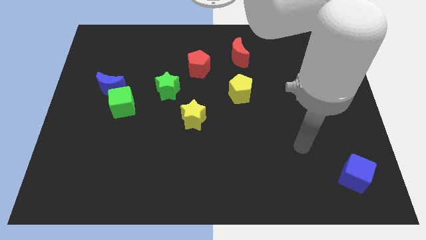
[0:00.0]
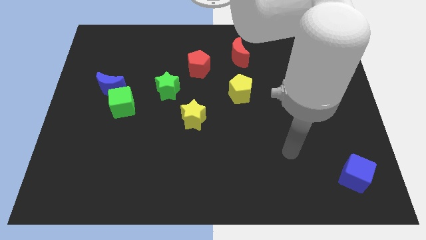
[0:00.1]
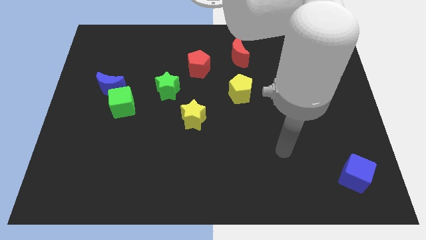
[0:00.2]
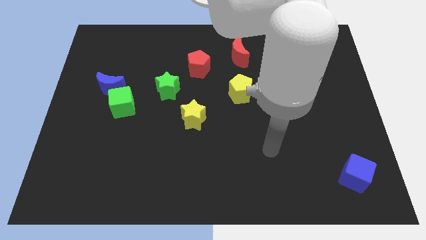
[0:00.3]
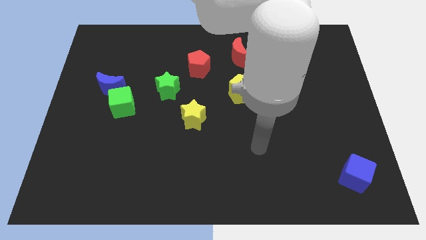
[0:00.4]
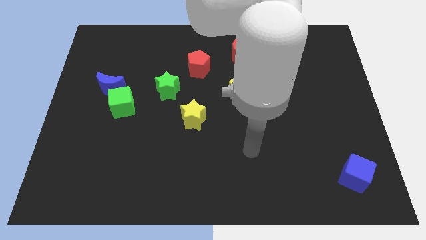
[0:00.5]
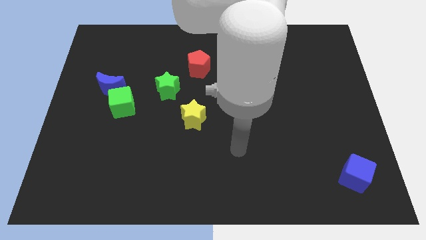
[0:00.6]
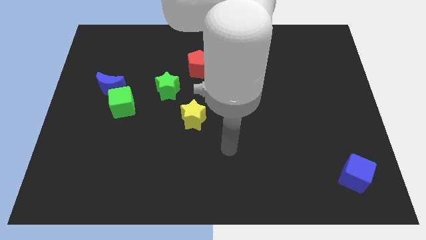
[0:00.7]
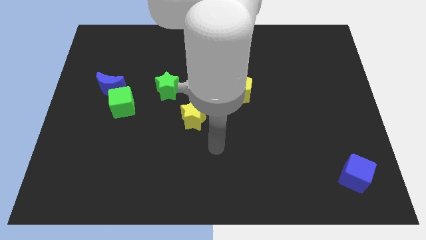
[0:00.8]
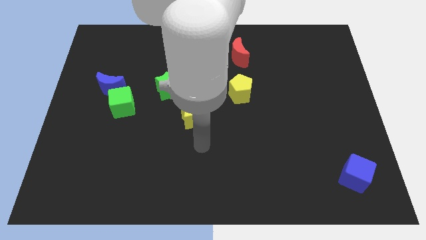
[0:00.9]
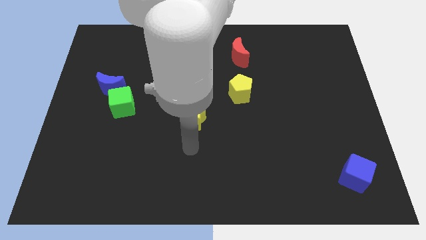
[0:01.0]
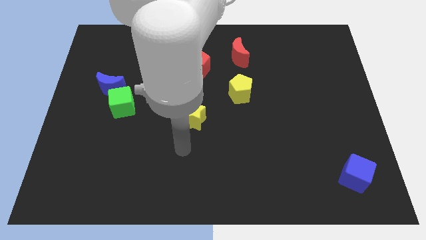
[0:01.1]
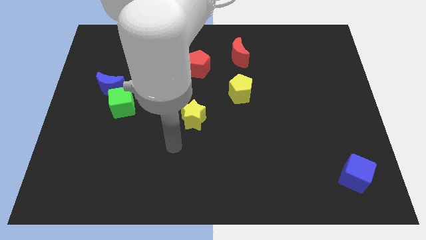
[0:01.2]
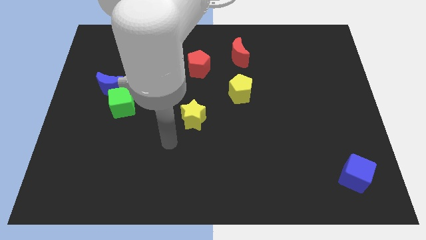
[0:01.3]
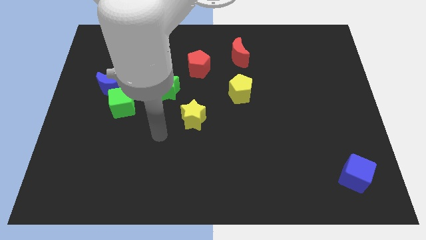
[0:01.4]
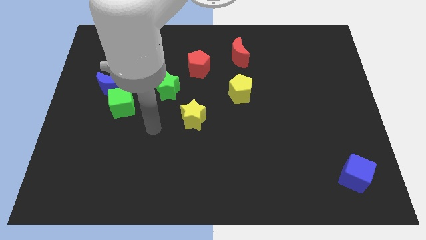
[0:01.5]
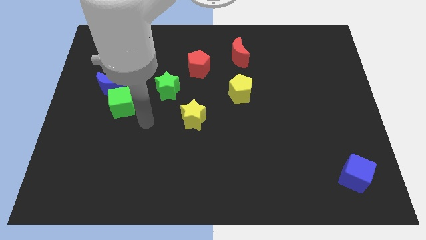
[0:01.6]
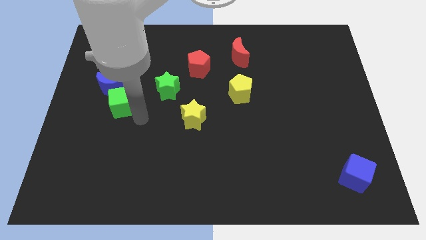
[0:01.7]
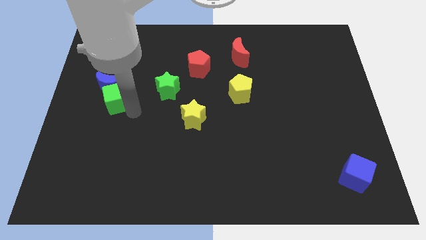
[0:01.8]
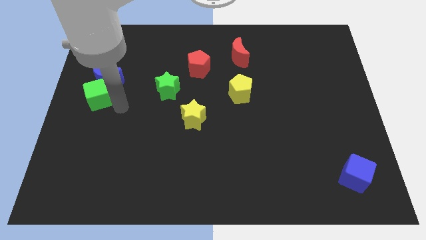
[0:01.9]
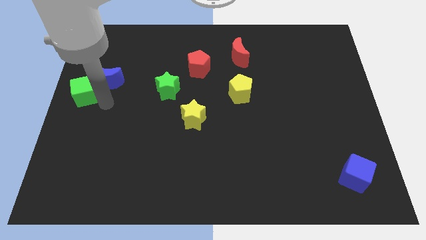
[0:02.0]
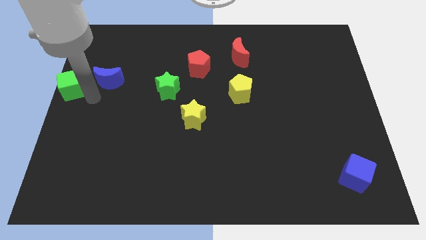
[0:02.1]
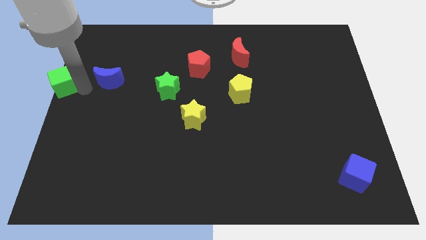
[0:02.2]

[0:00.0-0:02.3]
separate the blue moon from the green cube

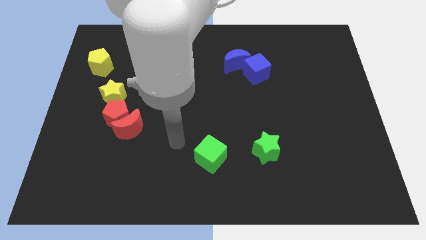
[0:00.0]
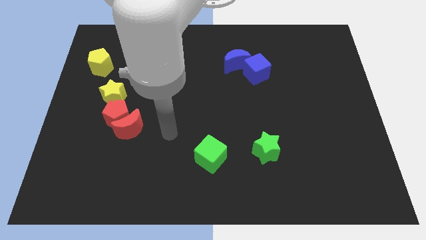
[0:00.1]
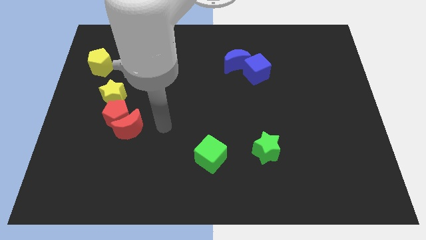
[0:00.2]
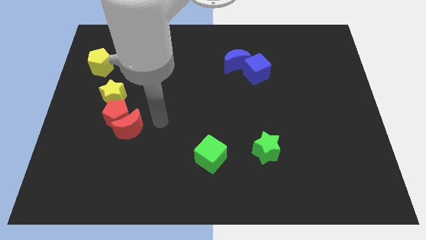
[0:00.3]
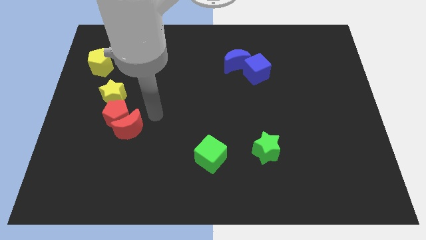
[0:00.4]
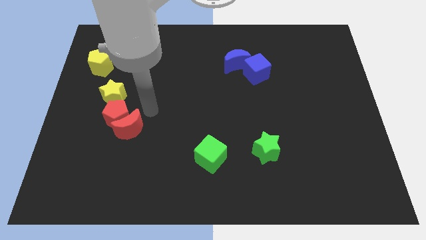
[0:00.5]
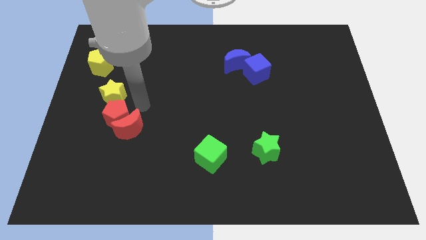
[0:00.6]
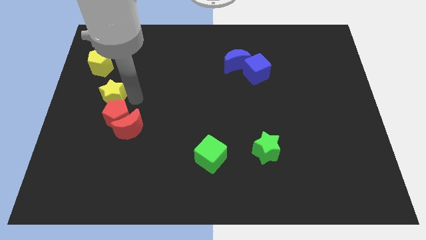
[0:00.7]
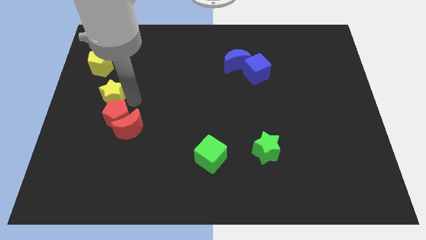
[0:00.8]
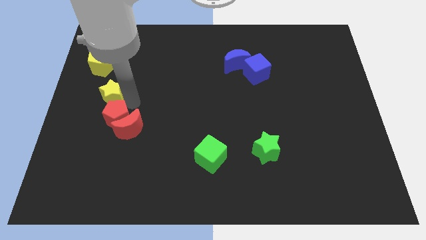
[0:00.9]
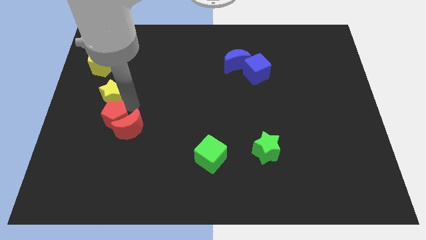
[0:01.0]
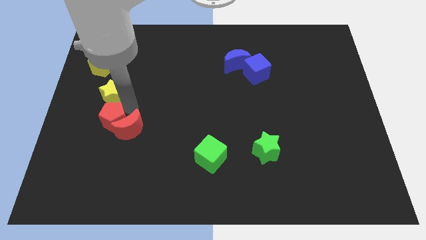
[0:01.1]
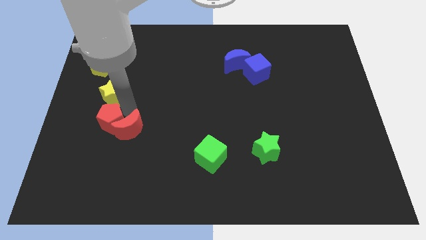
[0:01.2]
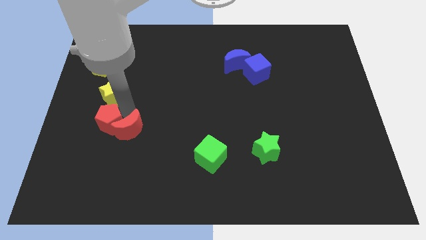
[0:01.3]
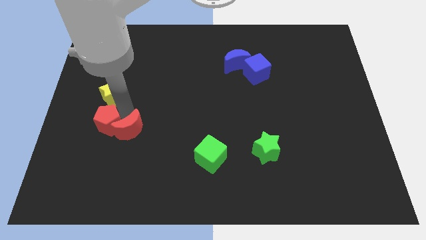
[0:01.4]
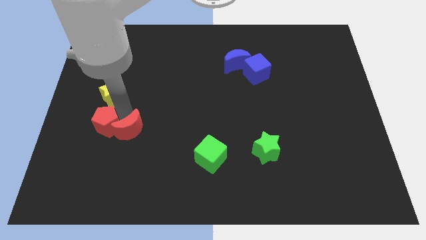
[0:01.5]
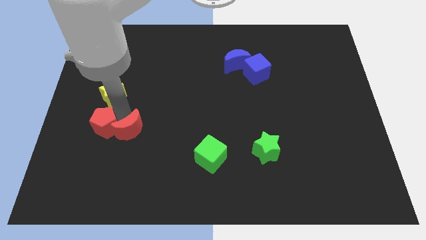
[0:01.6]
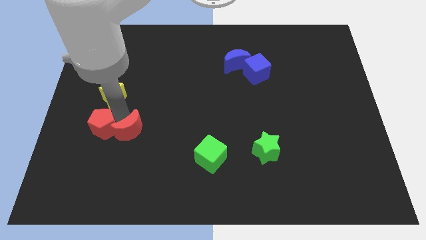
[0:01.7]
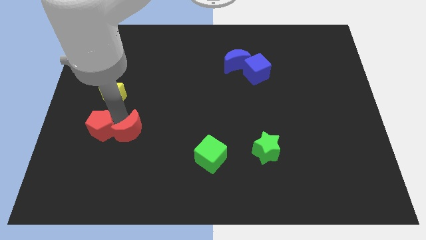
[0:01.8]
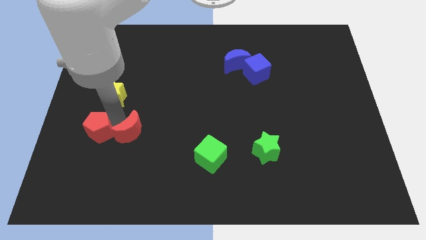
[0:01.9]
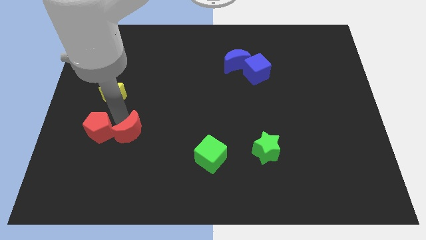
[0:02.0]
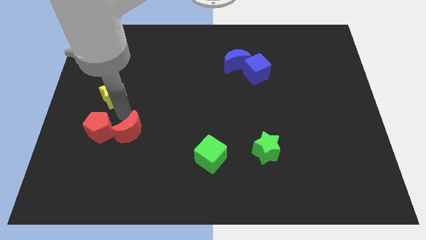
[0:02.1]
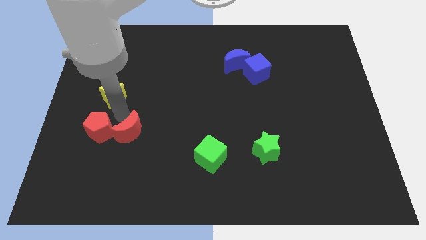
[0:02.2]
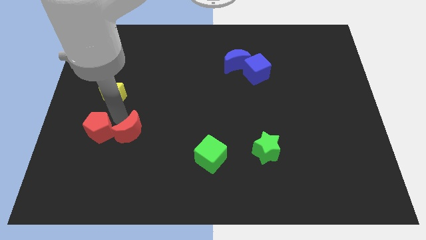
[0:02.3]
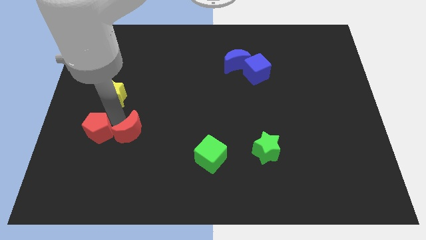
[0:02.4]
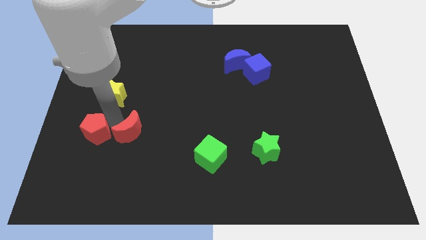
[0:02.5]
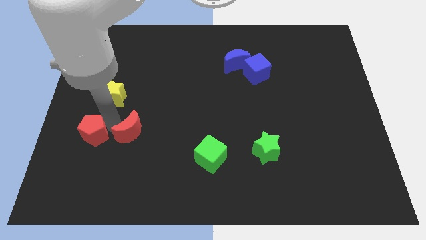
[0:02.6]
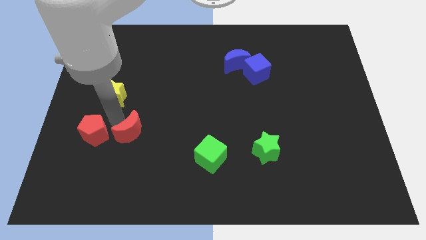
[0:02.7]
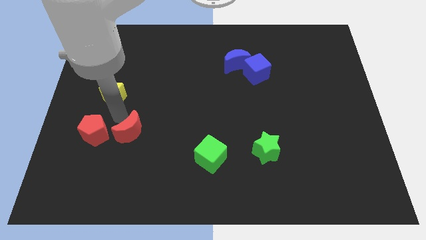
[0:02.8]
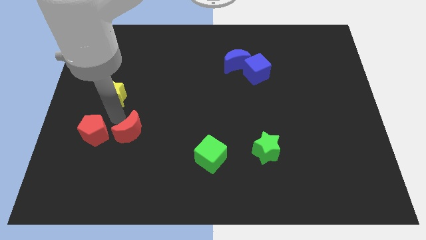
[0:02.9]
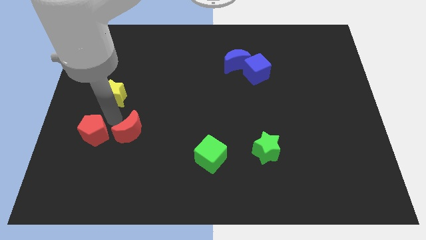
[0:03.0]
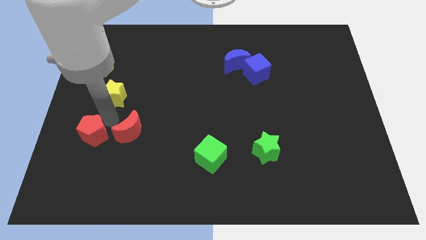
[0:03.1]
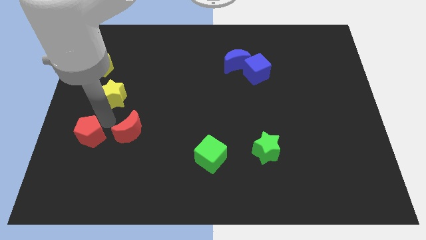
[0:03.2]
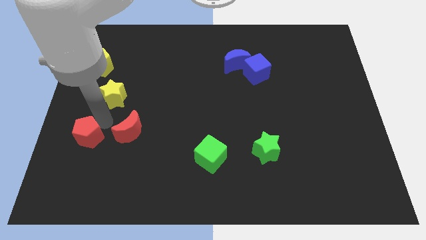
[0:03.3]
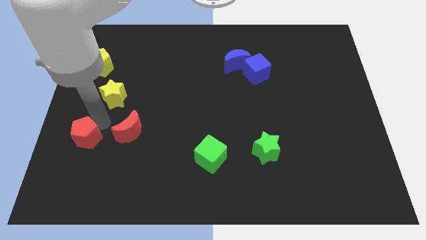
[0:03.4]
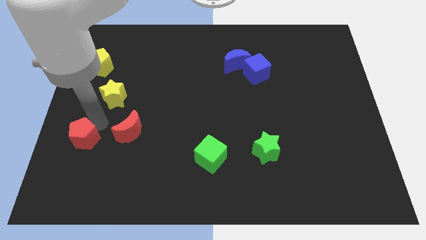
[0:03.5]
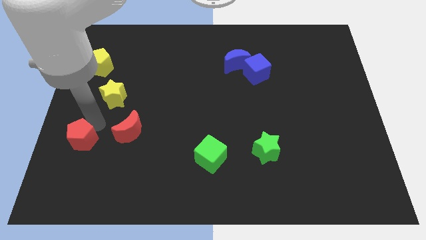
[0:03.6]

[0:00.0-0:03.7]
move the red pentagon away from the red moon and yellow star

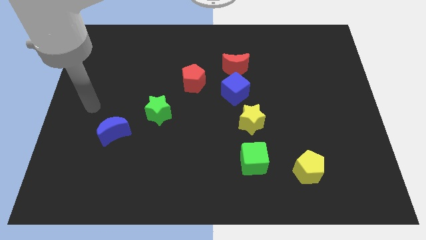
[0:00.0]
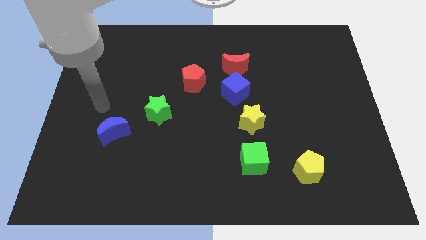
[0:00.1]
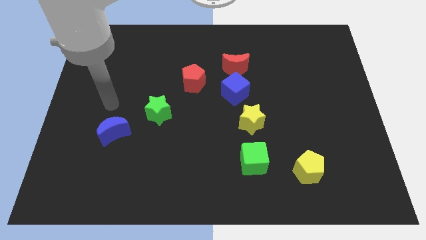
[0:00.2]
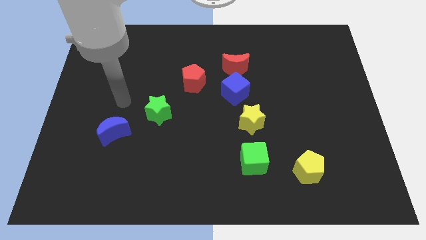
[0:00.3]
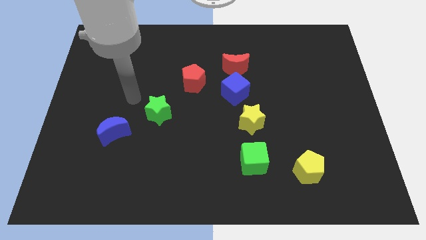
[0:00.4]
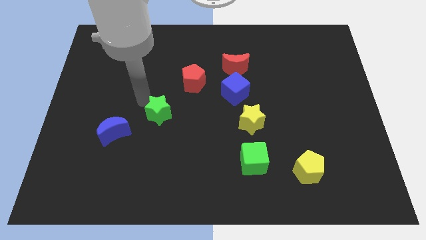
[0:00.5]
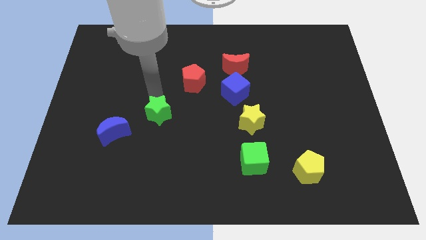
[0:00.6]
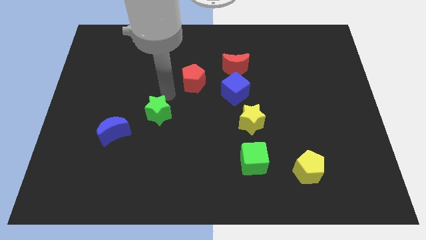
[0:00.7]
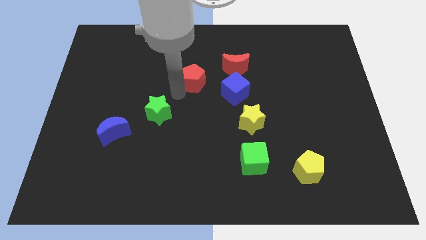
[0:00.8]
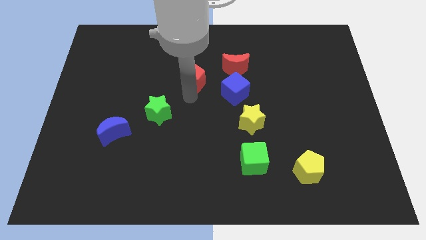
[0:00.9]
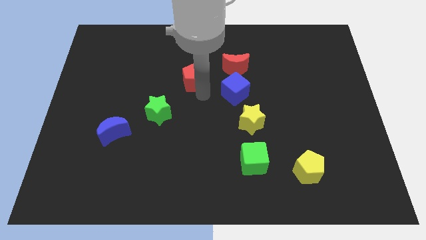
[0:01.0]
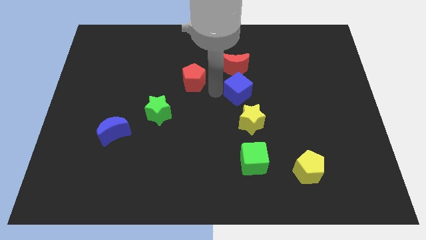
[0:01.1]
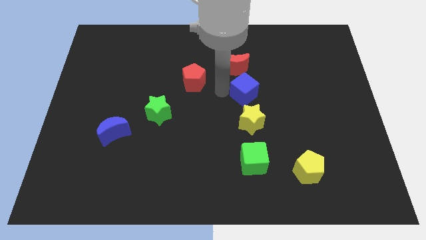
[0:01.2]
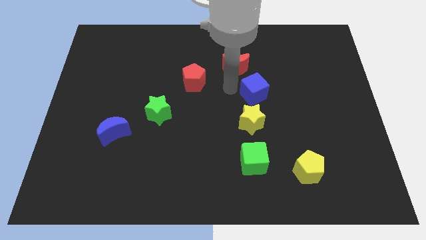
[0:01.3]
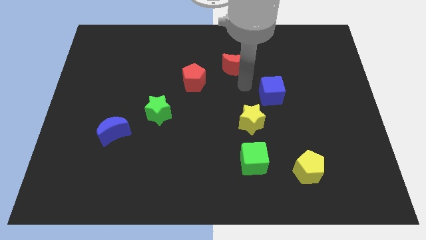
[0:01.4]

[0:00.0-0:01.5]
move the red moon away from the blue cube

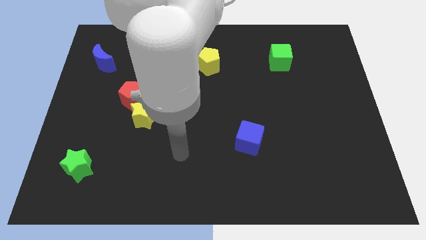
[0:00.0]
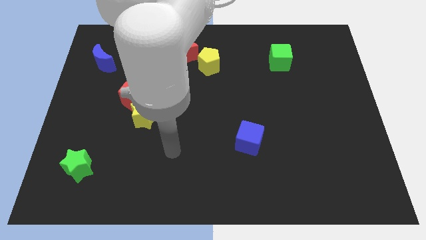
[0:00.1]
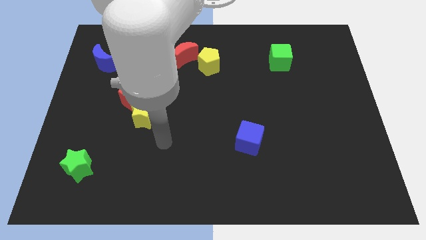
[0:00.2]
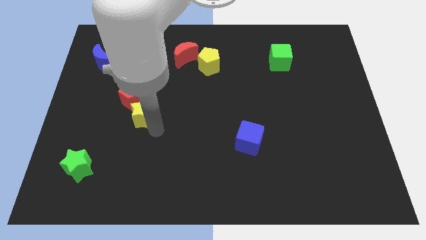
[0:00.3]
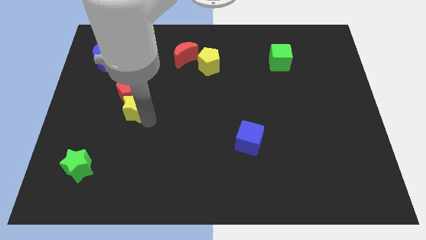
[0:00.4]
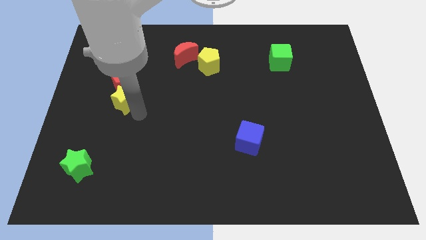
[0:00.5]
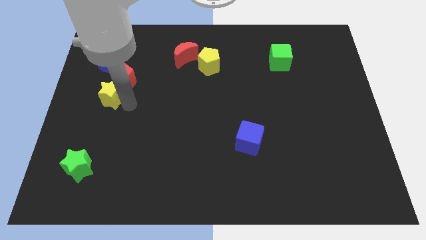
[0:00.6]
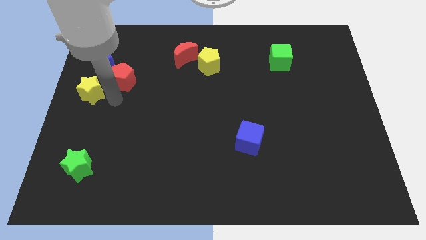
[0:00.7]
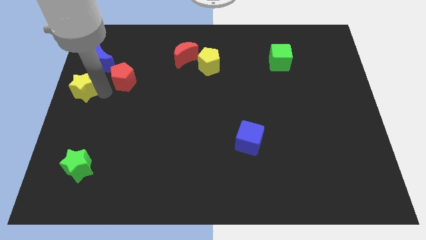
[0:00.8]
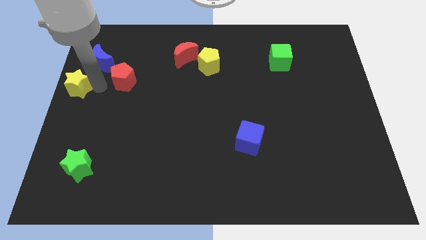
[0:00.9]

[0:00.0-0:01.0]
pull the red pentagon apart from the yellow star

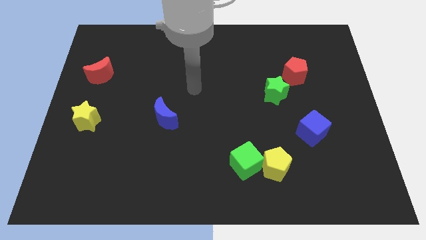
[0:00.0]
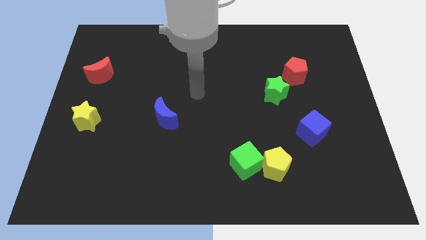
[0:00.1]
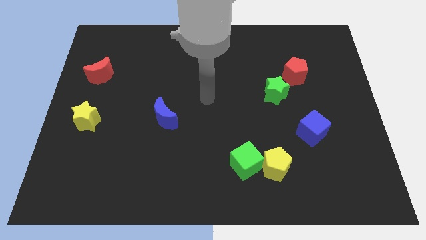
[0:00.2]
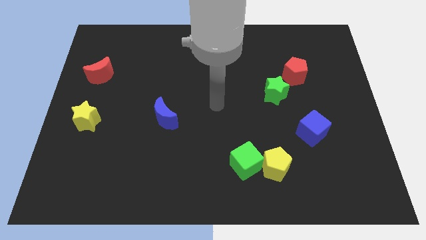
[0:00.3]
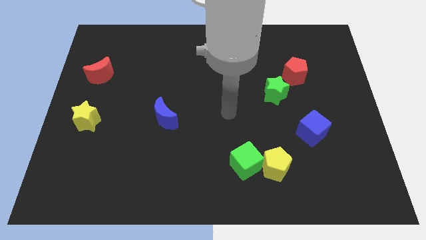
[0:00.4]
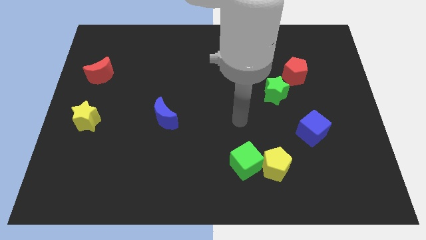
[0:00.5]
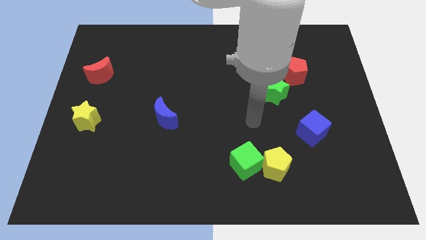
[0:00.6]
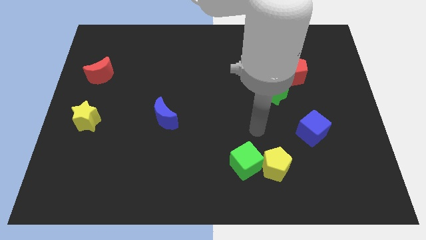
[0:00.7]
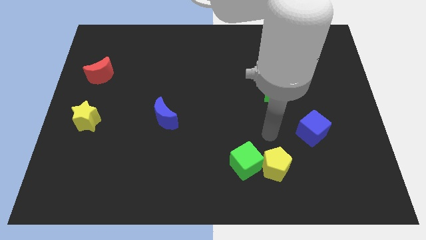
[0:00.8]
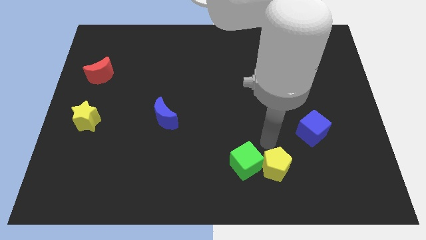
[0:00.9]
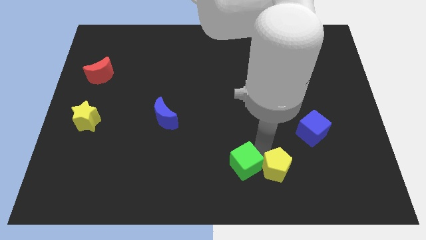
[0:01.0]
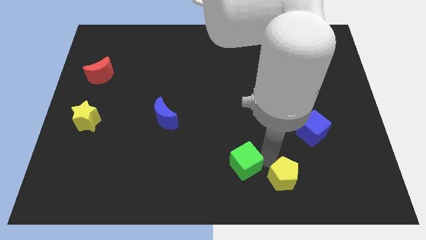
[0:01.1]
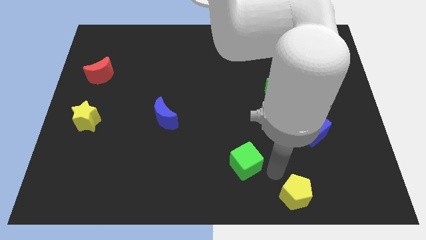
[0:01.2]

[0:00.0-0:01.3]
pull the green cube apart from the yellow pentagon
